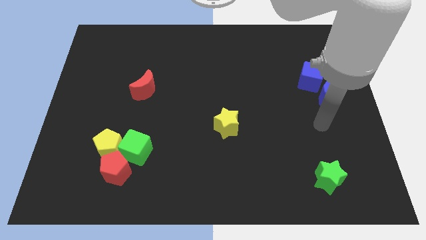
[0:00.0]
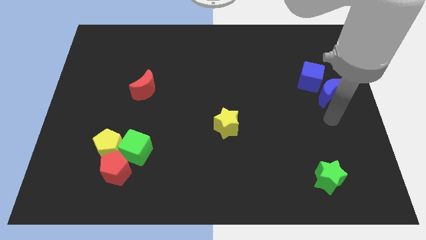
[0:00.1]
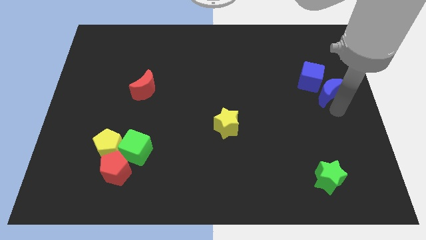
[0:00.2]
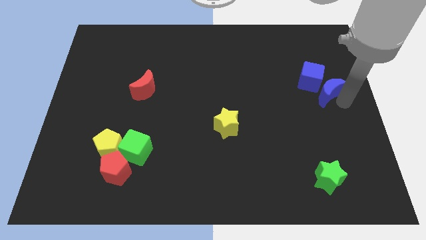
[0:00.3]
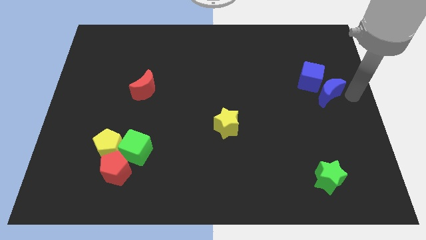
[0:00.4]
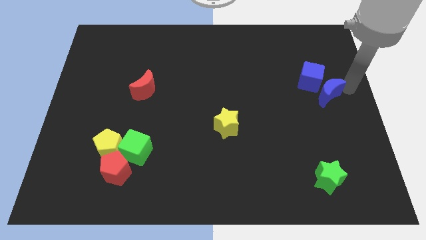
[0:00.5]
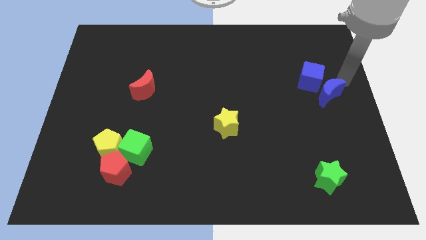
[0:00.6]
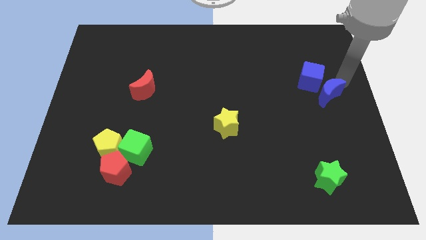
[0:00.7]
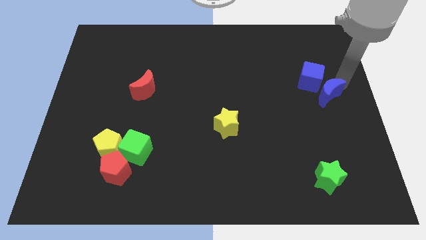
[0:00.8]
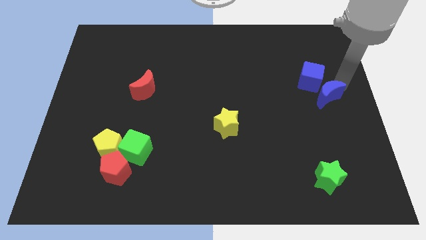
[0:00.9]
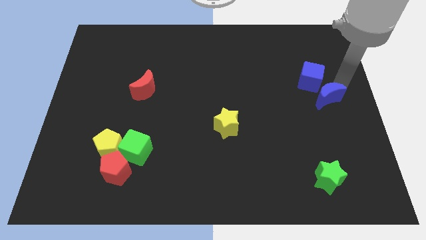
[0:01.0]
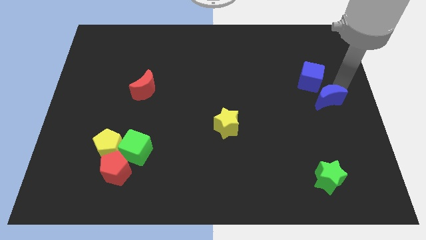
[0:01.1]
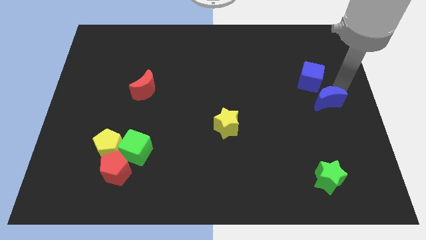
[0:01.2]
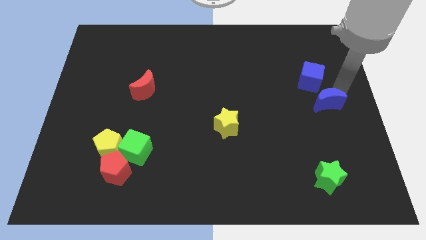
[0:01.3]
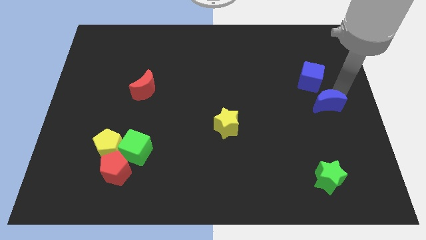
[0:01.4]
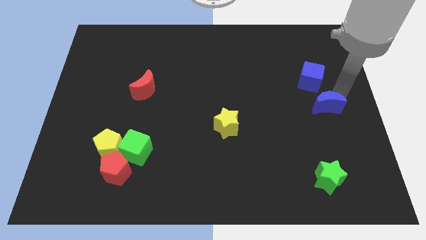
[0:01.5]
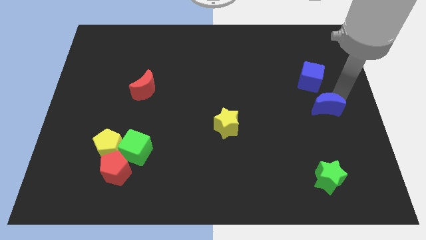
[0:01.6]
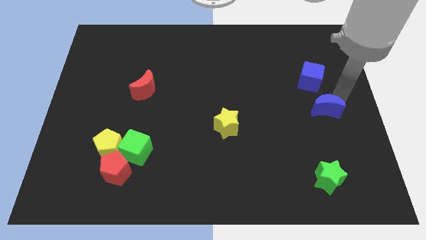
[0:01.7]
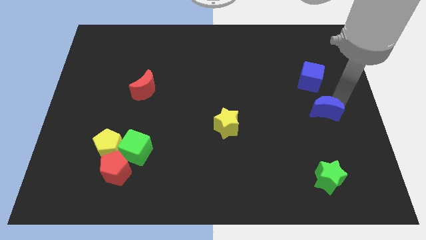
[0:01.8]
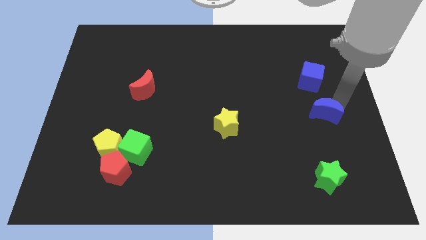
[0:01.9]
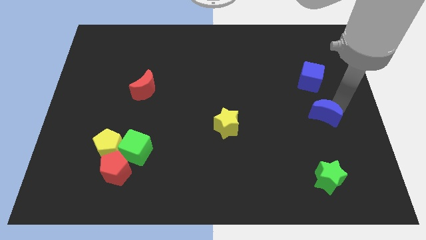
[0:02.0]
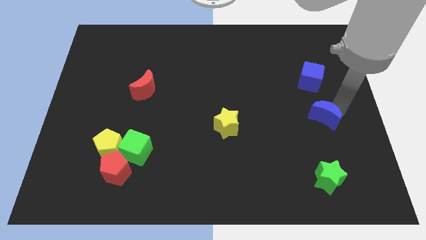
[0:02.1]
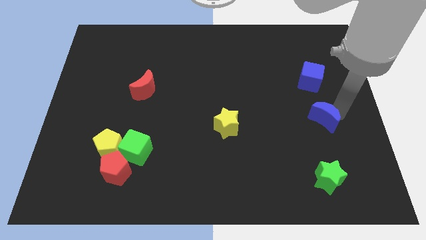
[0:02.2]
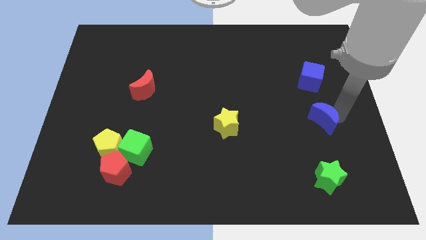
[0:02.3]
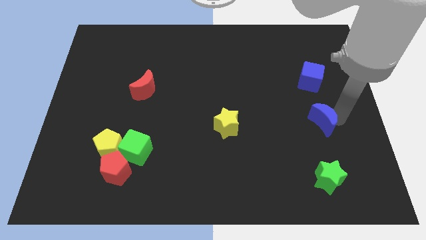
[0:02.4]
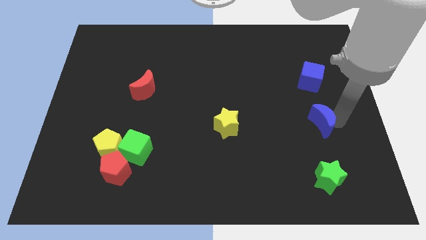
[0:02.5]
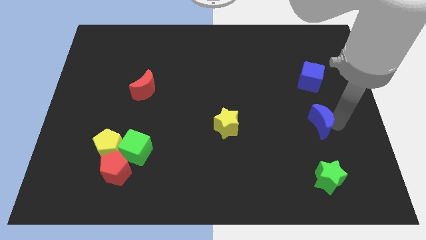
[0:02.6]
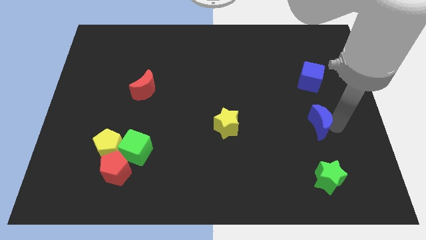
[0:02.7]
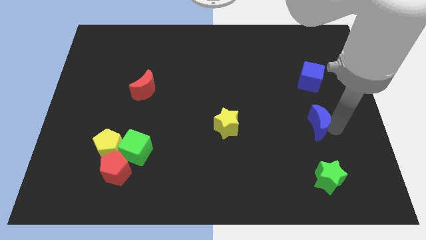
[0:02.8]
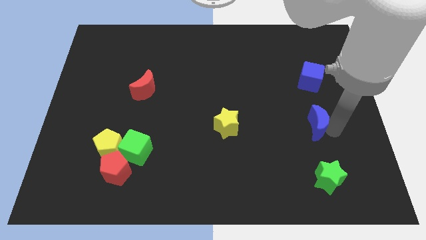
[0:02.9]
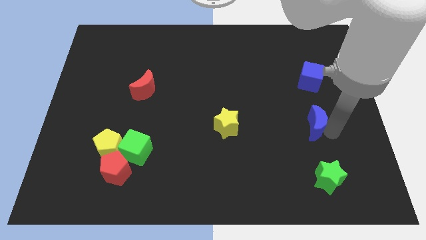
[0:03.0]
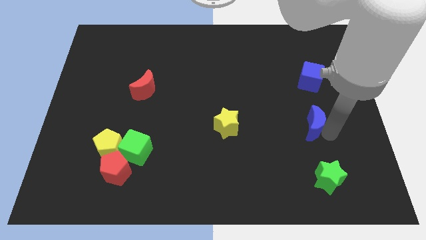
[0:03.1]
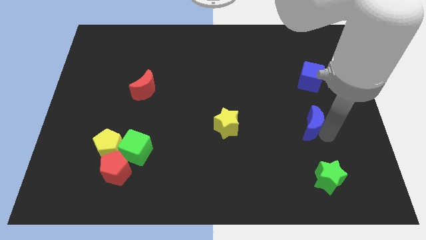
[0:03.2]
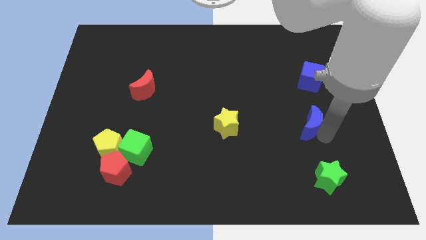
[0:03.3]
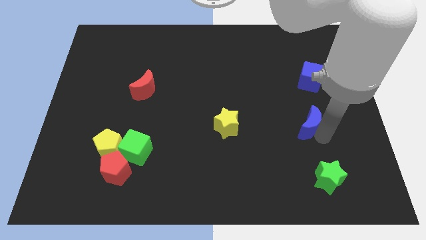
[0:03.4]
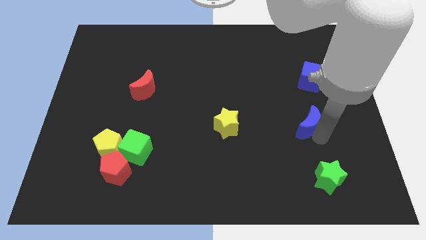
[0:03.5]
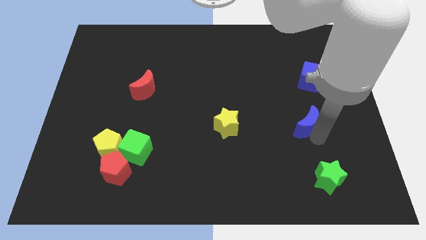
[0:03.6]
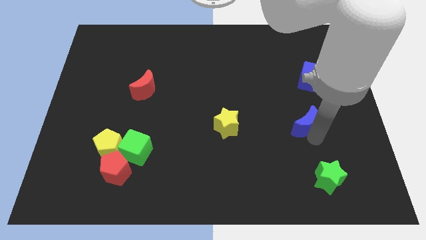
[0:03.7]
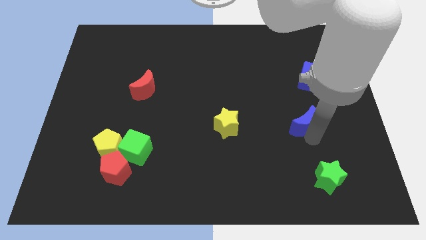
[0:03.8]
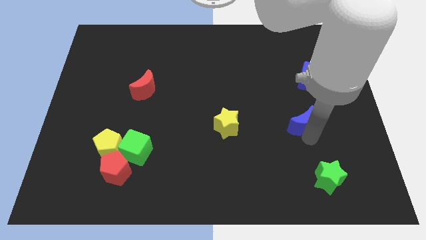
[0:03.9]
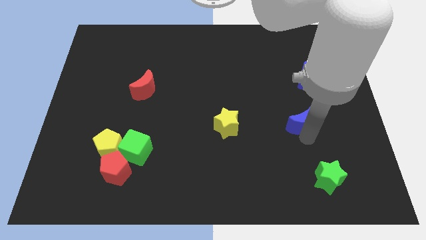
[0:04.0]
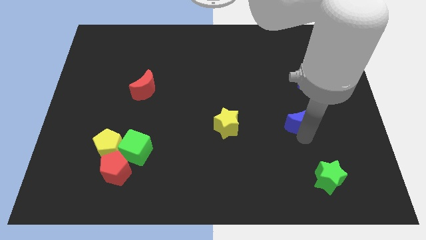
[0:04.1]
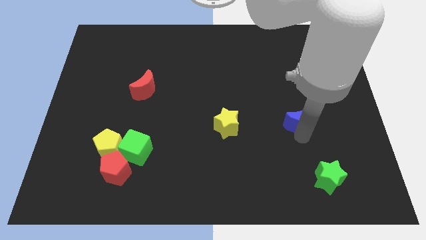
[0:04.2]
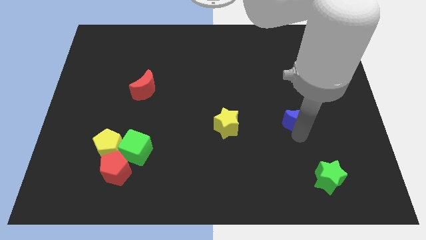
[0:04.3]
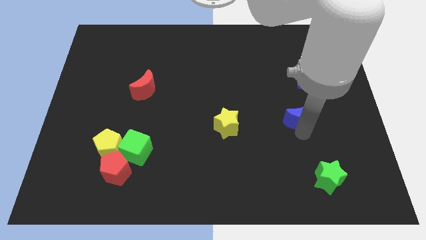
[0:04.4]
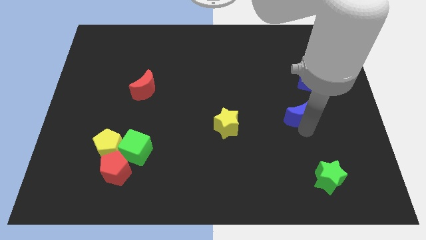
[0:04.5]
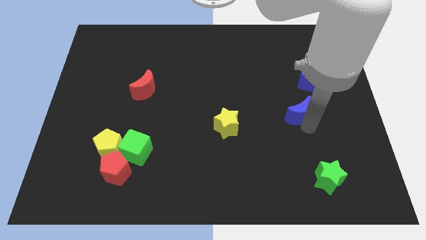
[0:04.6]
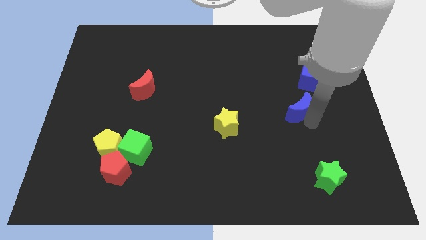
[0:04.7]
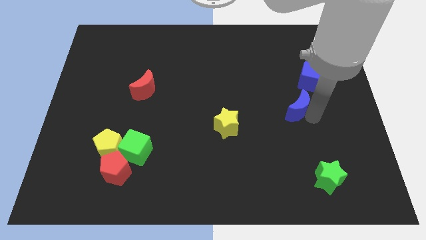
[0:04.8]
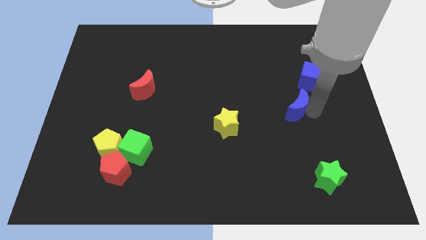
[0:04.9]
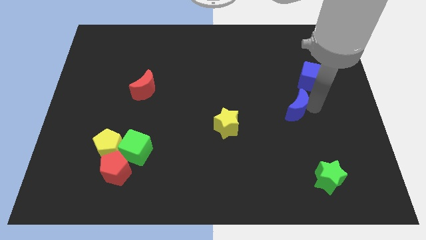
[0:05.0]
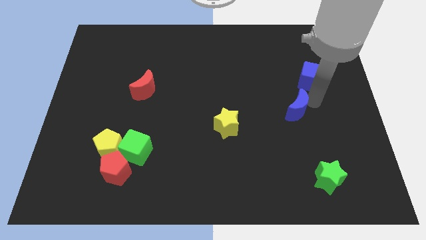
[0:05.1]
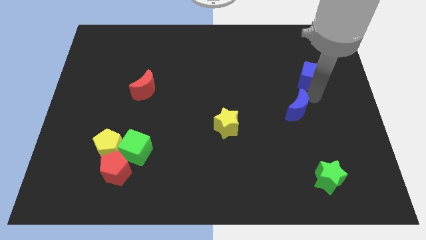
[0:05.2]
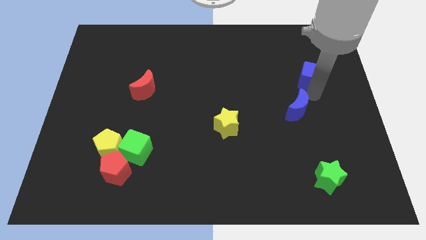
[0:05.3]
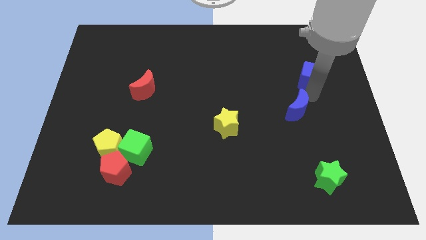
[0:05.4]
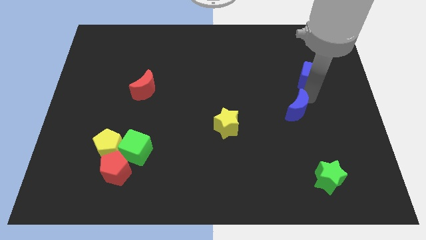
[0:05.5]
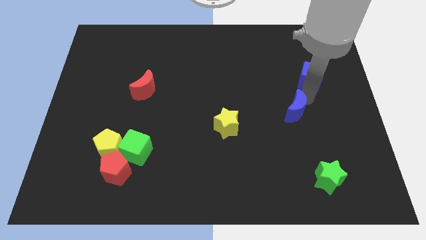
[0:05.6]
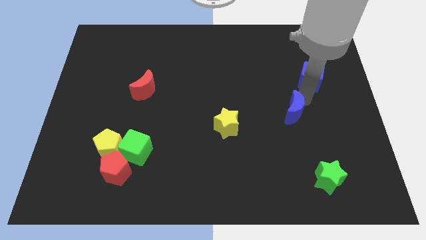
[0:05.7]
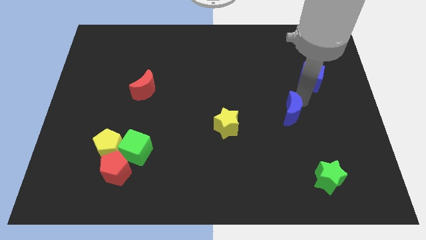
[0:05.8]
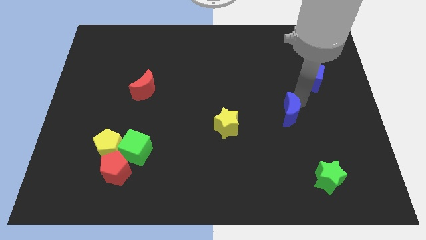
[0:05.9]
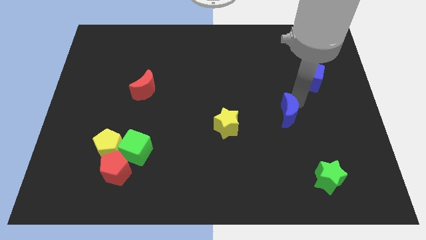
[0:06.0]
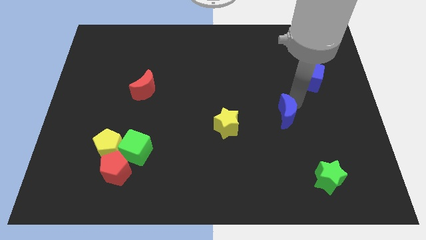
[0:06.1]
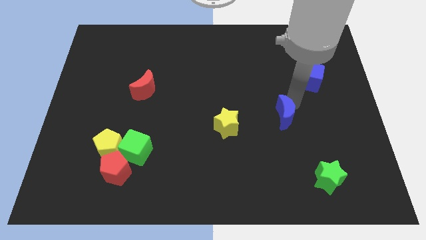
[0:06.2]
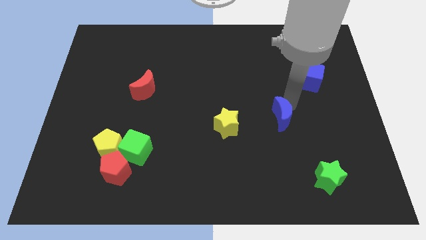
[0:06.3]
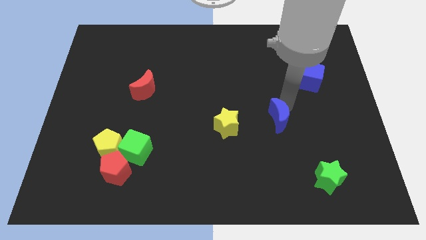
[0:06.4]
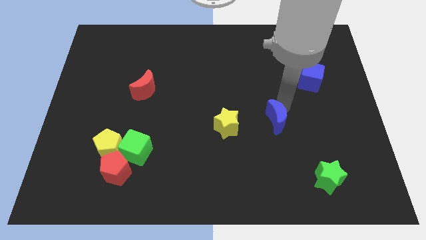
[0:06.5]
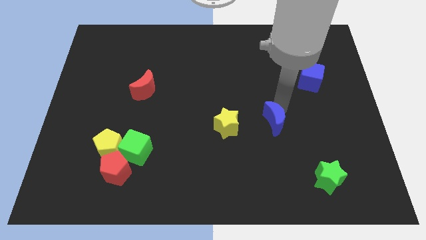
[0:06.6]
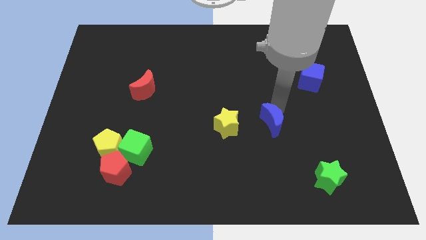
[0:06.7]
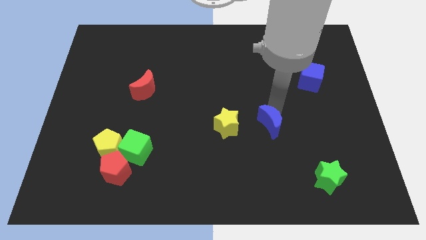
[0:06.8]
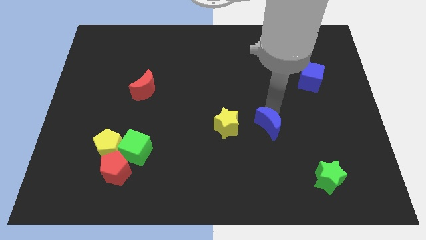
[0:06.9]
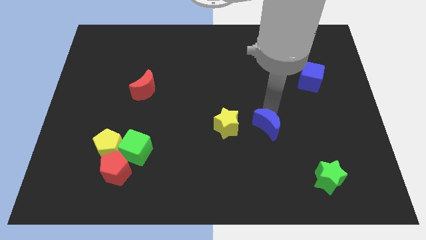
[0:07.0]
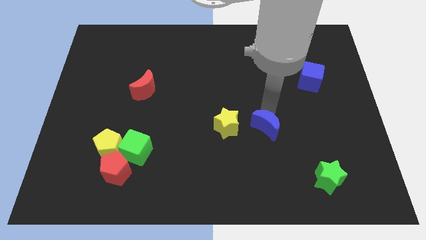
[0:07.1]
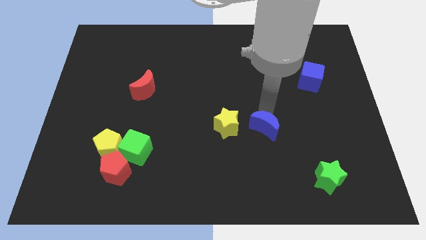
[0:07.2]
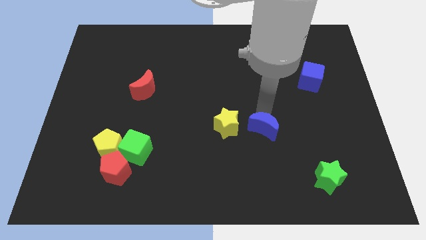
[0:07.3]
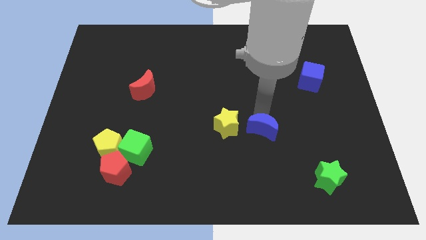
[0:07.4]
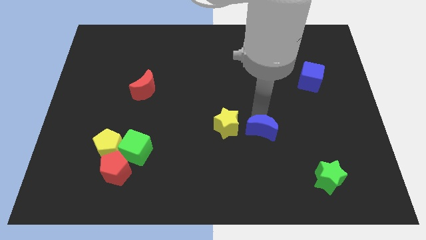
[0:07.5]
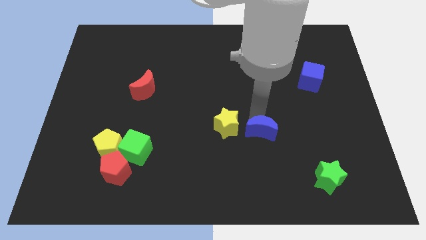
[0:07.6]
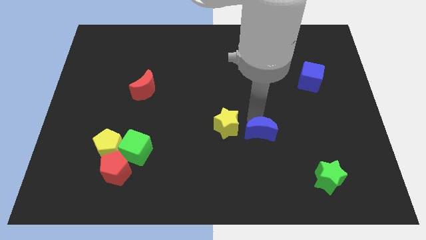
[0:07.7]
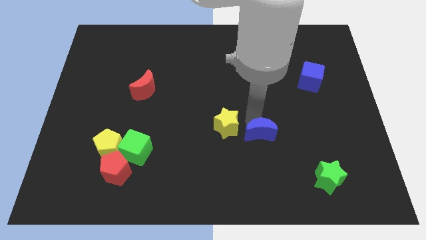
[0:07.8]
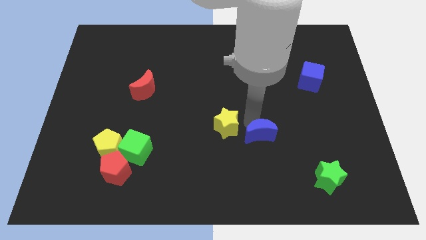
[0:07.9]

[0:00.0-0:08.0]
move the blue moon diagonally down and to the left

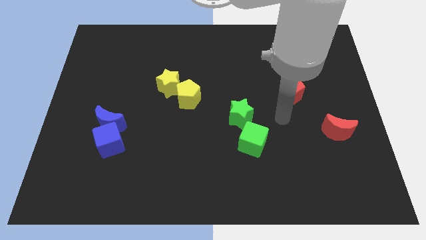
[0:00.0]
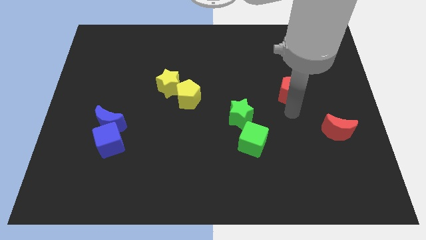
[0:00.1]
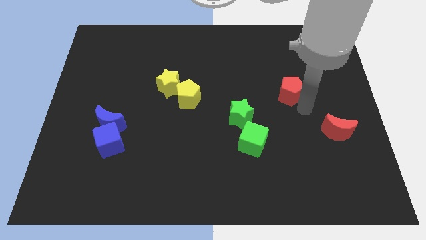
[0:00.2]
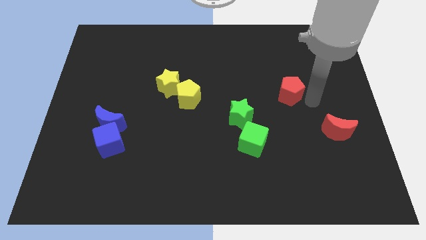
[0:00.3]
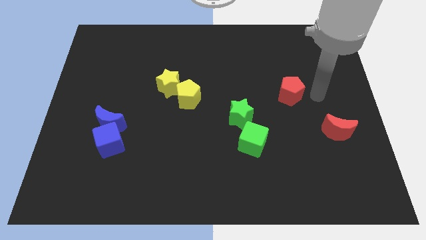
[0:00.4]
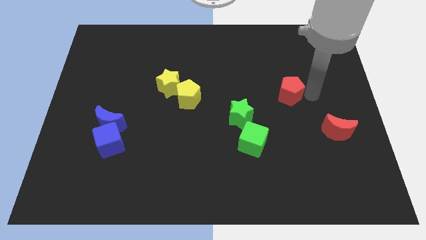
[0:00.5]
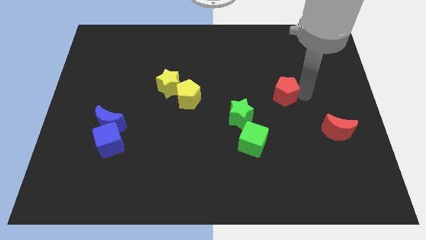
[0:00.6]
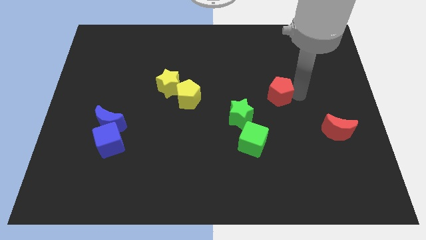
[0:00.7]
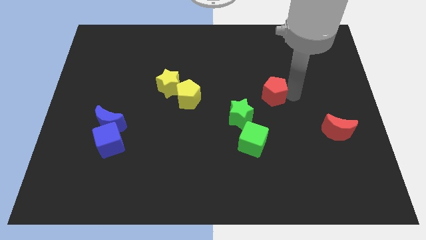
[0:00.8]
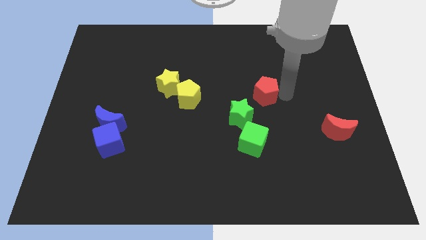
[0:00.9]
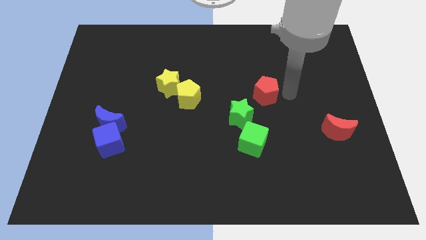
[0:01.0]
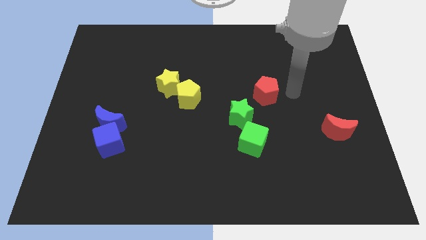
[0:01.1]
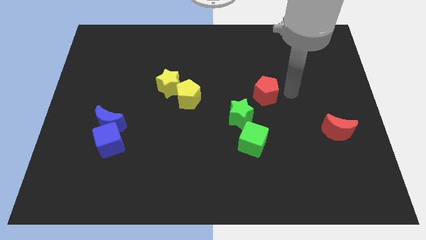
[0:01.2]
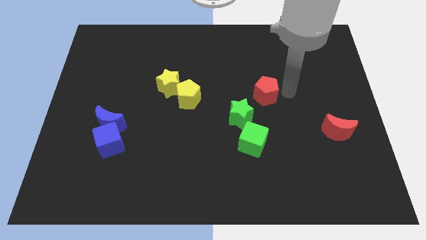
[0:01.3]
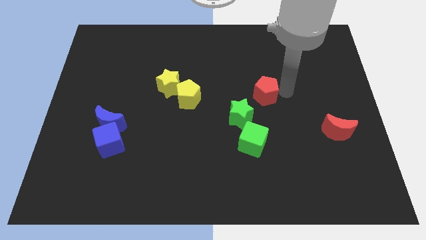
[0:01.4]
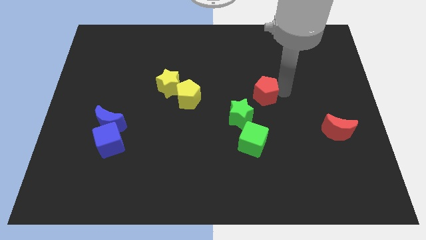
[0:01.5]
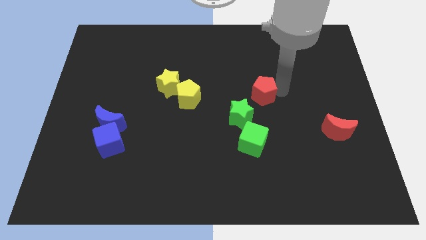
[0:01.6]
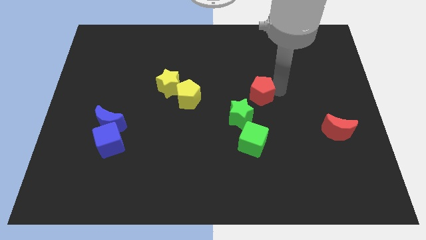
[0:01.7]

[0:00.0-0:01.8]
slightly push the red pentagon to the left
